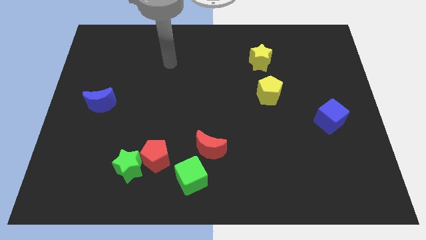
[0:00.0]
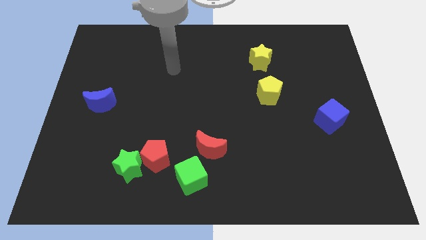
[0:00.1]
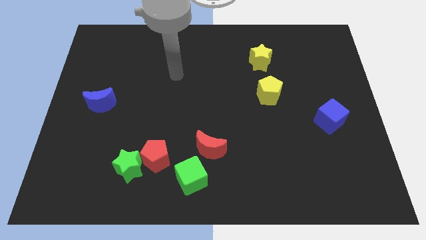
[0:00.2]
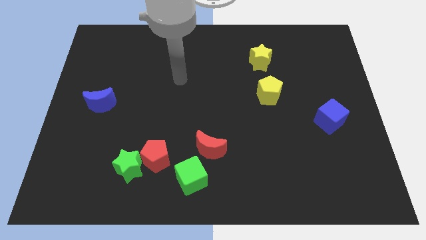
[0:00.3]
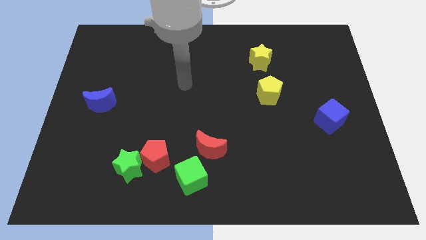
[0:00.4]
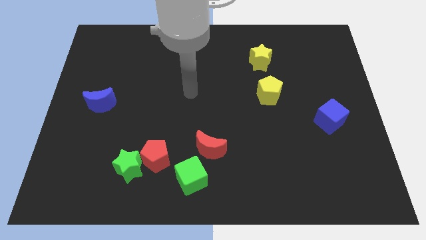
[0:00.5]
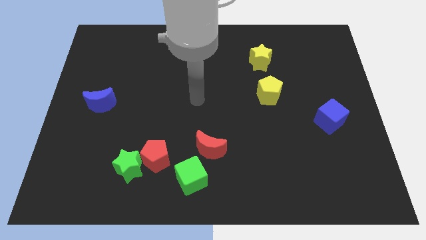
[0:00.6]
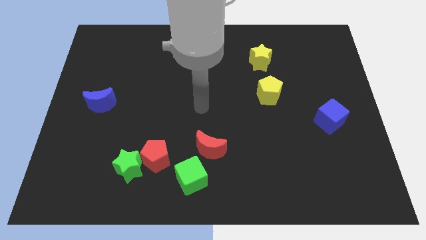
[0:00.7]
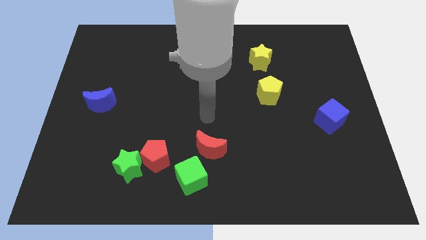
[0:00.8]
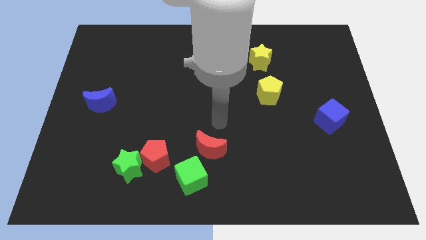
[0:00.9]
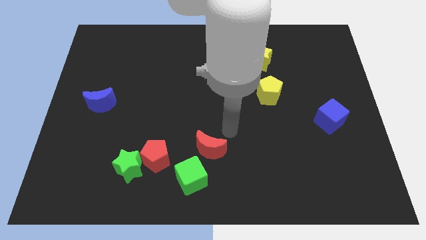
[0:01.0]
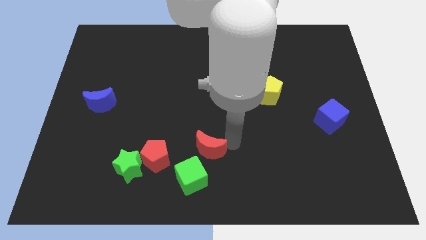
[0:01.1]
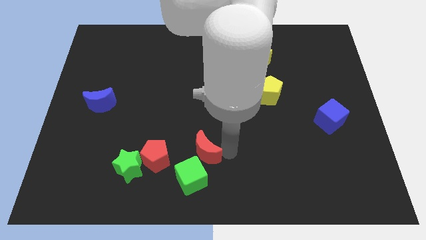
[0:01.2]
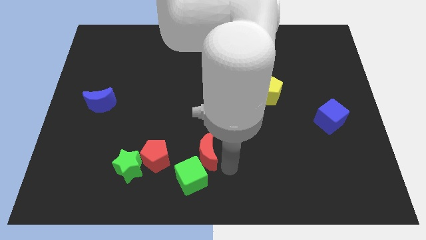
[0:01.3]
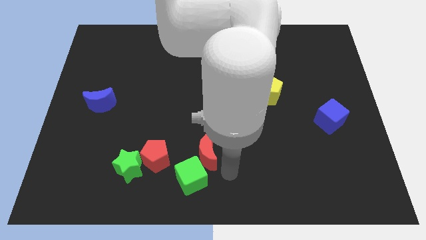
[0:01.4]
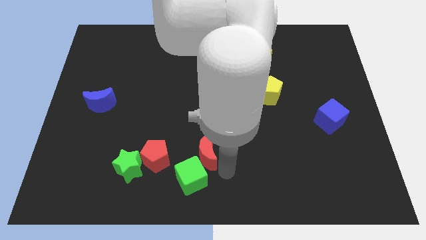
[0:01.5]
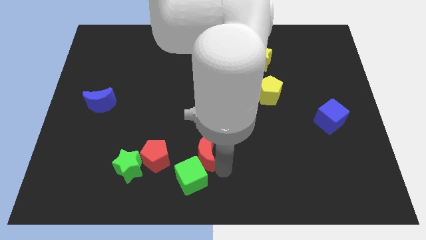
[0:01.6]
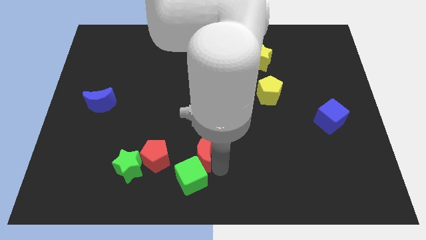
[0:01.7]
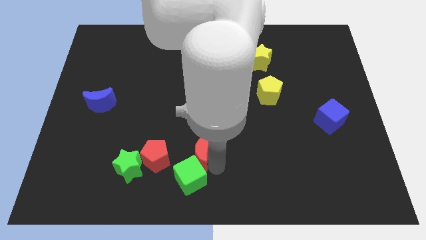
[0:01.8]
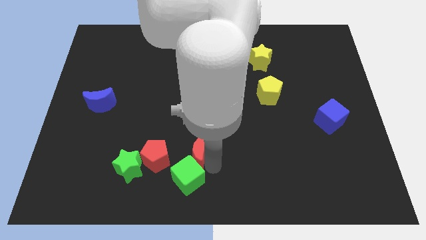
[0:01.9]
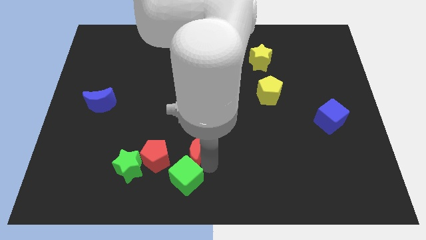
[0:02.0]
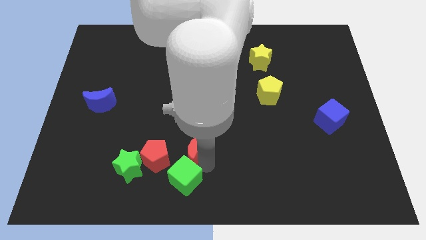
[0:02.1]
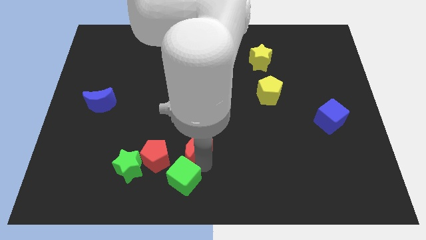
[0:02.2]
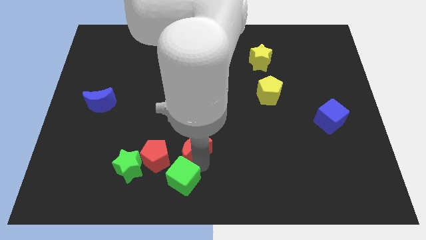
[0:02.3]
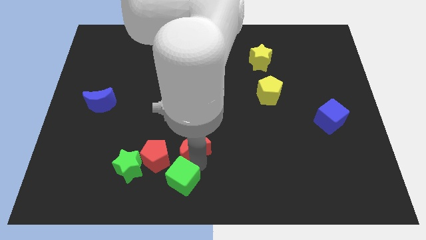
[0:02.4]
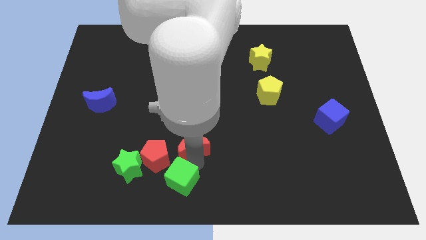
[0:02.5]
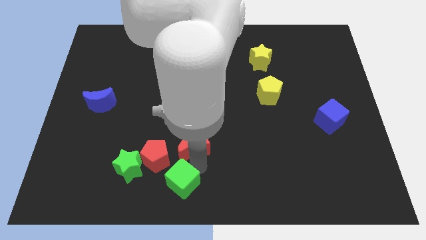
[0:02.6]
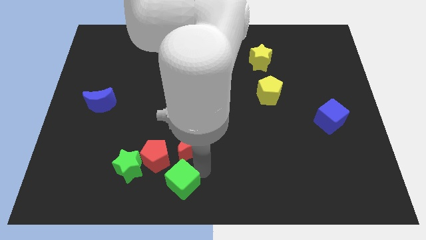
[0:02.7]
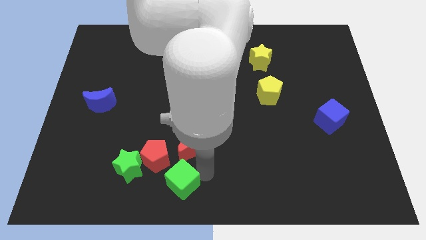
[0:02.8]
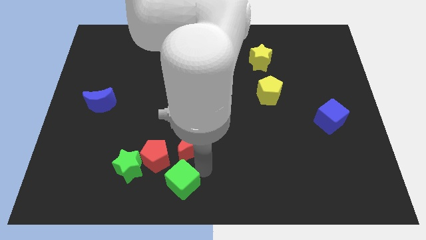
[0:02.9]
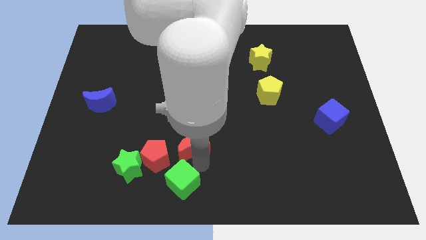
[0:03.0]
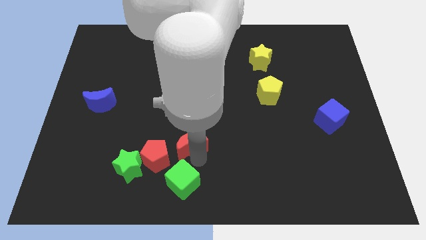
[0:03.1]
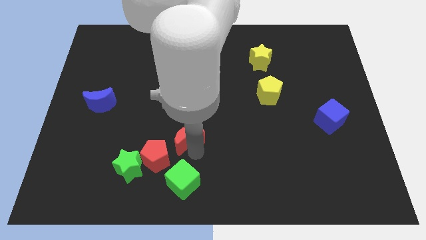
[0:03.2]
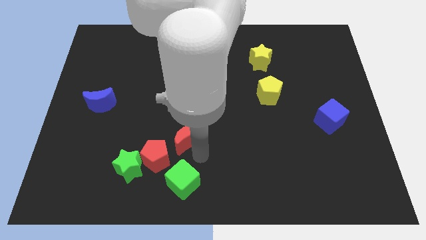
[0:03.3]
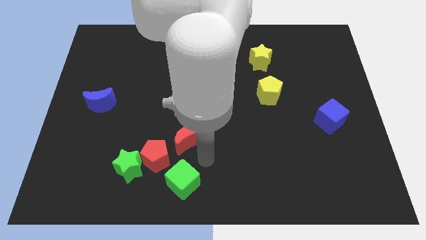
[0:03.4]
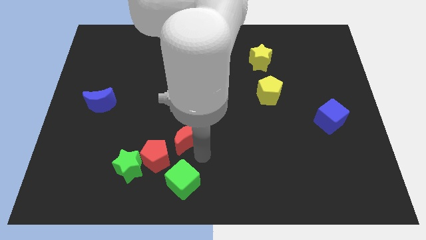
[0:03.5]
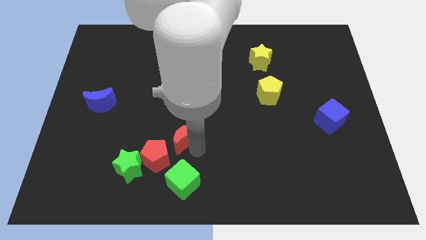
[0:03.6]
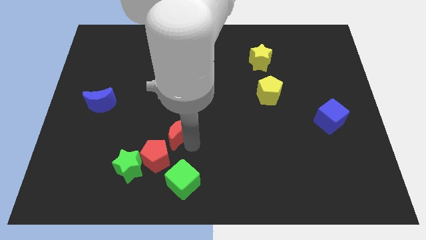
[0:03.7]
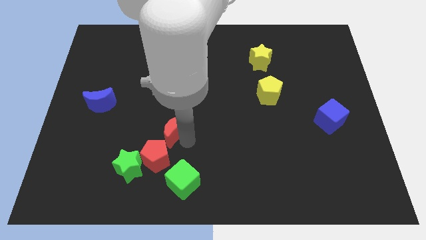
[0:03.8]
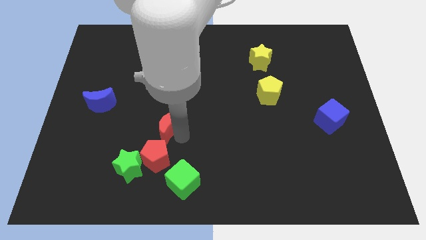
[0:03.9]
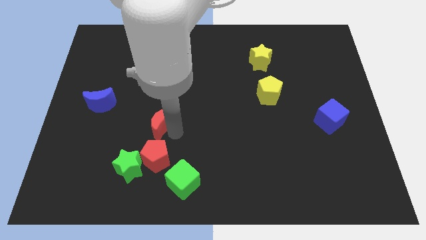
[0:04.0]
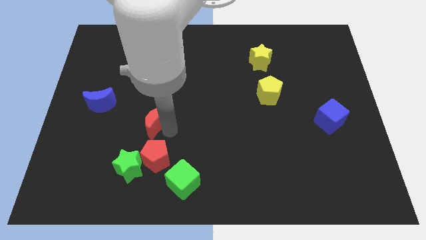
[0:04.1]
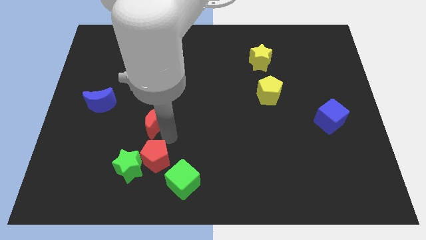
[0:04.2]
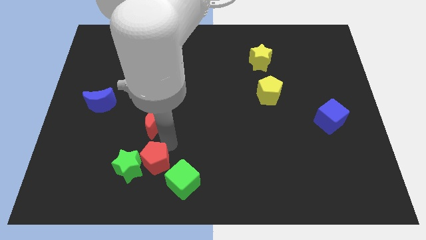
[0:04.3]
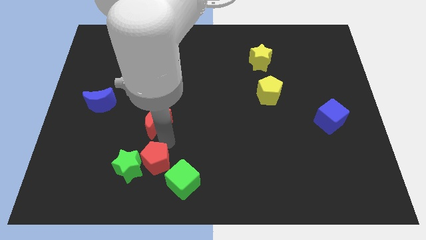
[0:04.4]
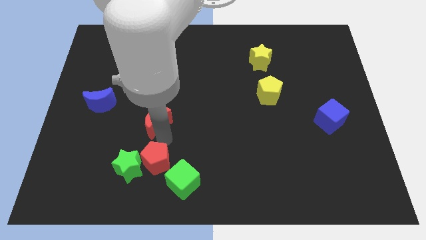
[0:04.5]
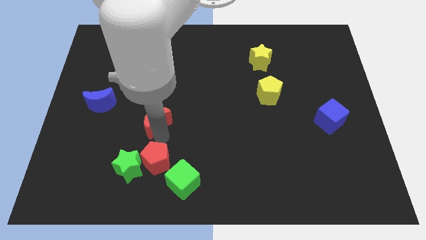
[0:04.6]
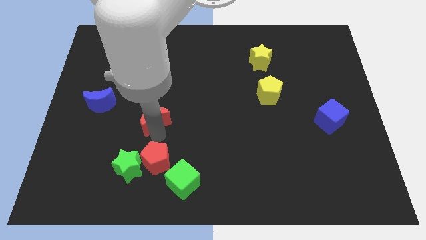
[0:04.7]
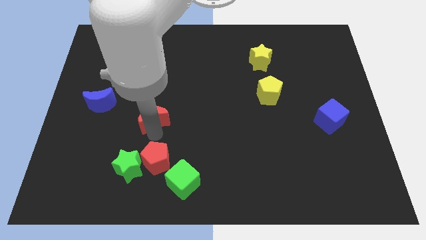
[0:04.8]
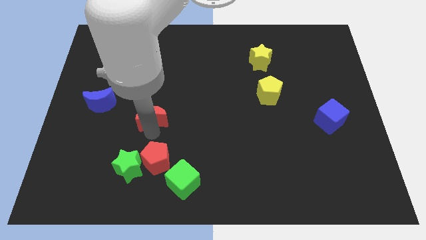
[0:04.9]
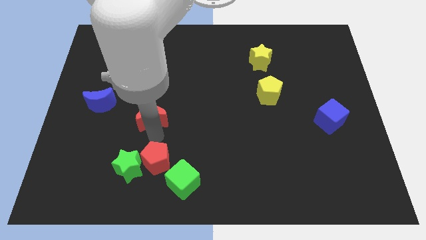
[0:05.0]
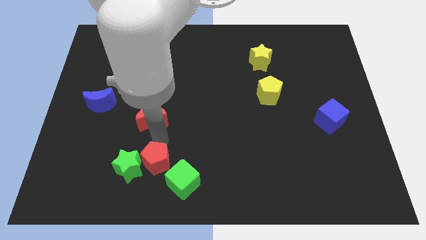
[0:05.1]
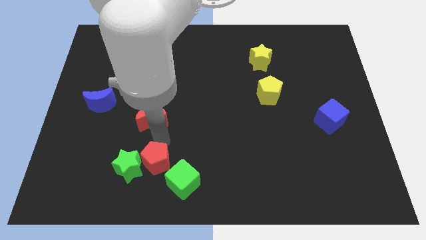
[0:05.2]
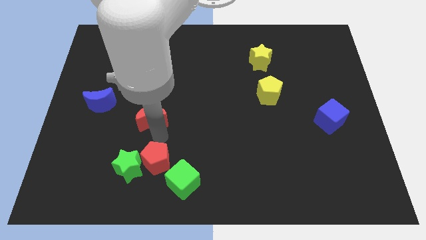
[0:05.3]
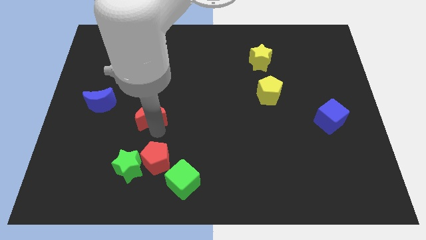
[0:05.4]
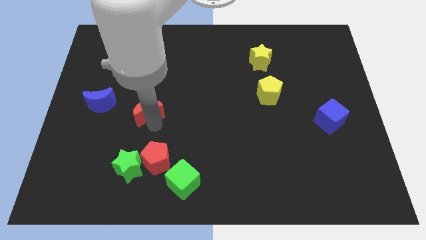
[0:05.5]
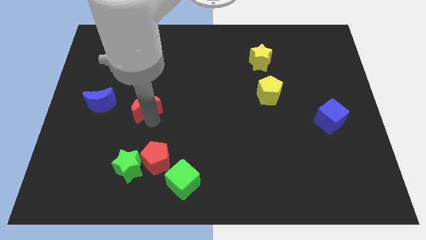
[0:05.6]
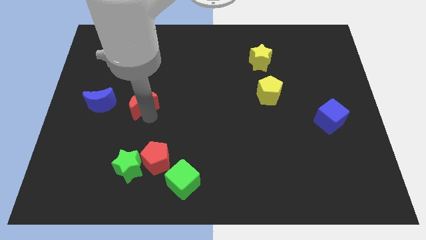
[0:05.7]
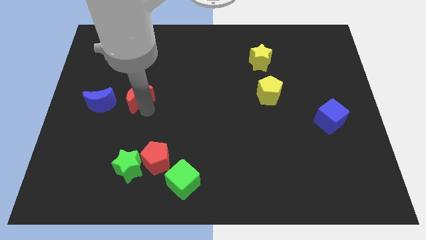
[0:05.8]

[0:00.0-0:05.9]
slide the red moon up and then left

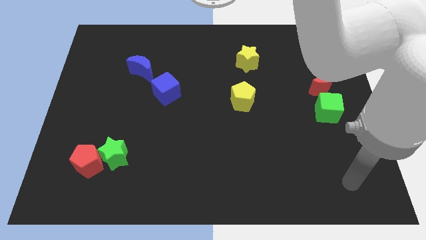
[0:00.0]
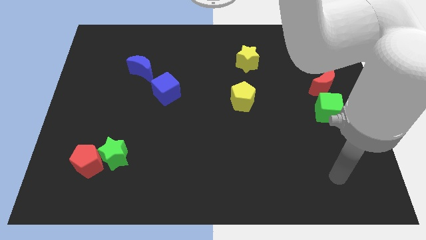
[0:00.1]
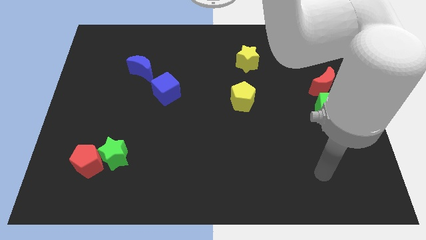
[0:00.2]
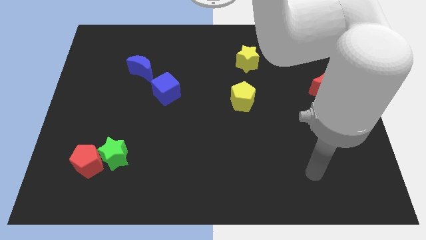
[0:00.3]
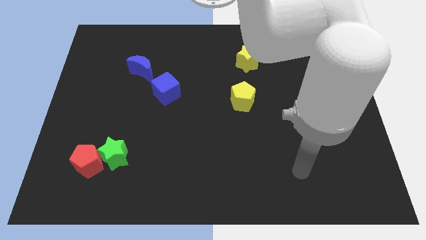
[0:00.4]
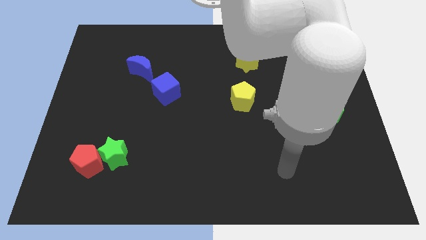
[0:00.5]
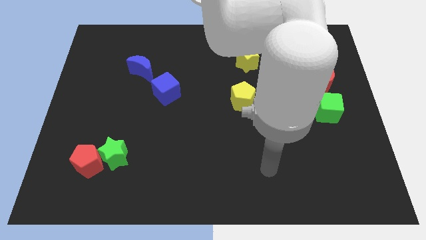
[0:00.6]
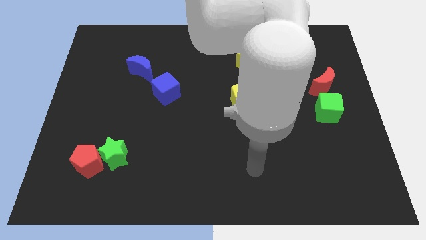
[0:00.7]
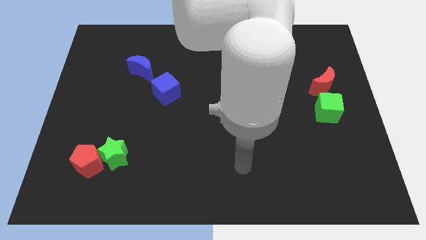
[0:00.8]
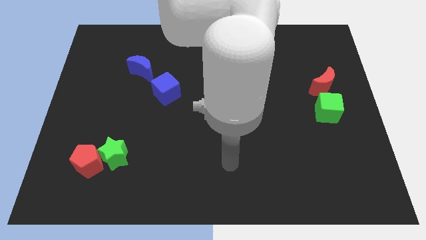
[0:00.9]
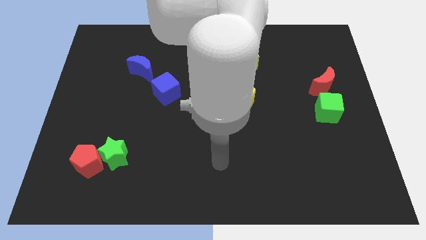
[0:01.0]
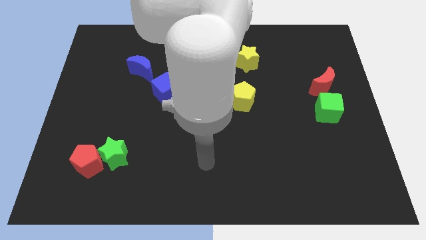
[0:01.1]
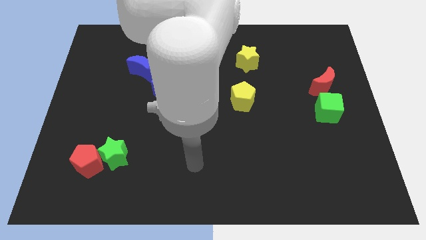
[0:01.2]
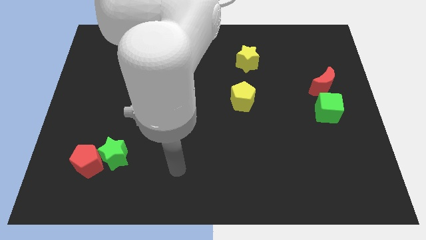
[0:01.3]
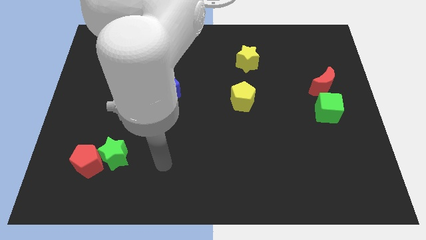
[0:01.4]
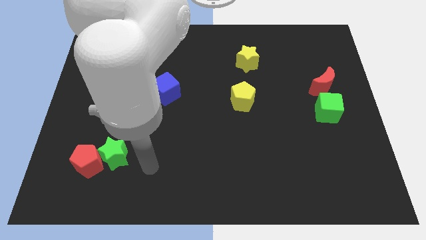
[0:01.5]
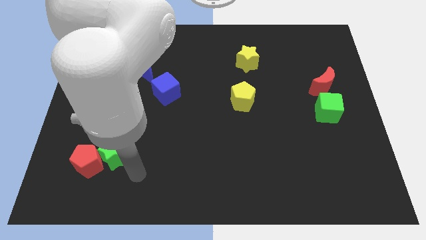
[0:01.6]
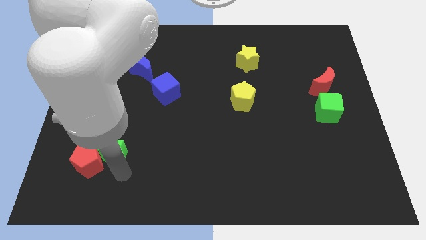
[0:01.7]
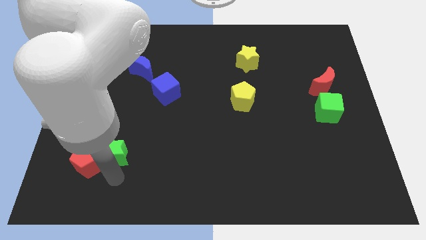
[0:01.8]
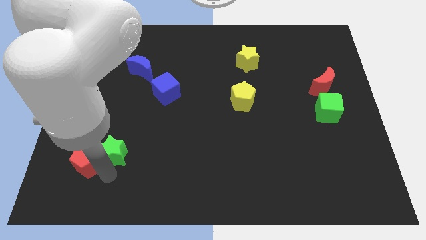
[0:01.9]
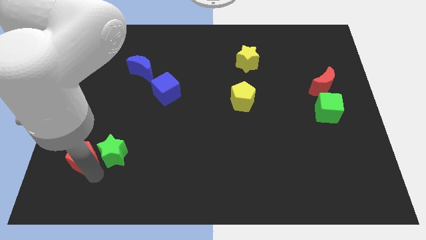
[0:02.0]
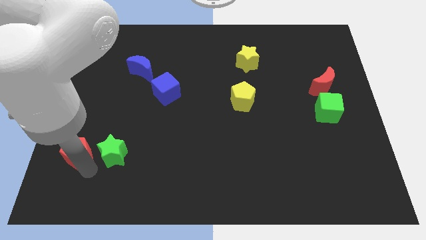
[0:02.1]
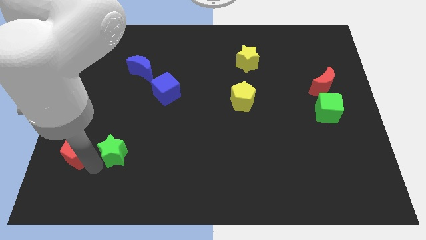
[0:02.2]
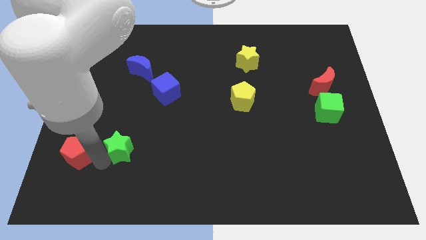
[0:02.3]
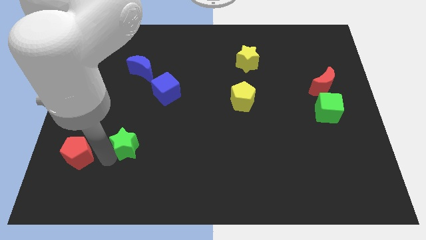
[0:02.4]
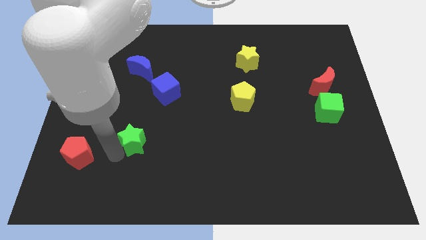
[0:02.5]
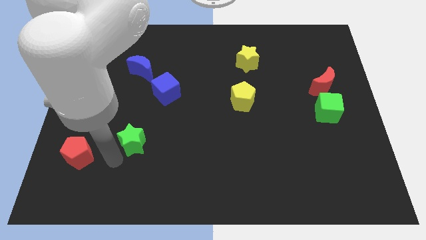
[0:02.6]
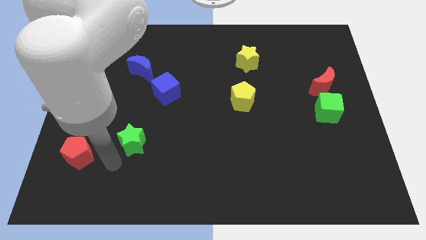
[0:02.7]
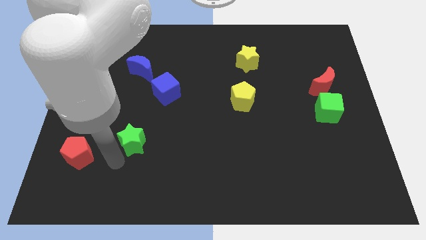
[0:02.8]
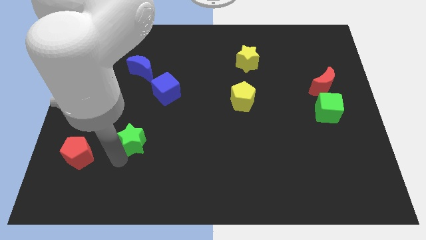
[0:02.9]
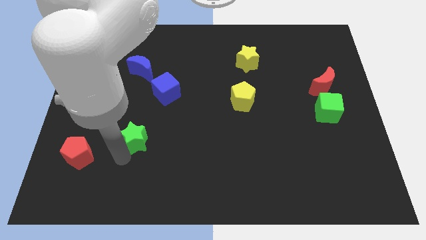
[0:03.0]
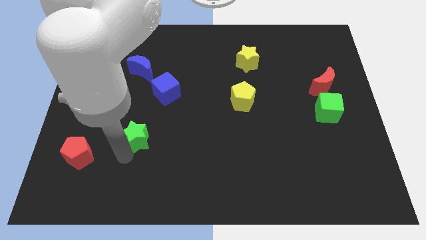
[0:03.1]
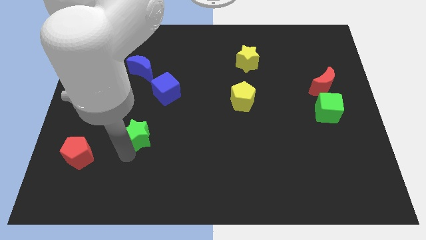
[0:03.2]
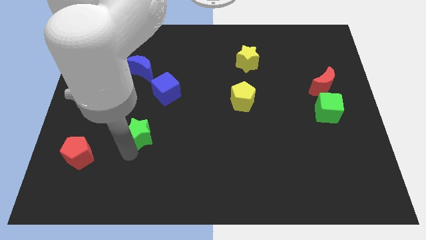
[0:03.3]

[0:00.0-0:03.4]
move the green star diagonally upwards and right slightly
